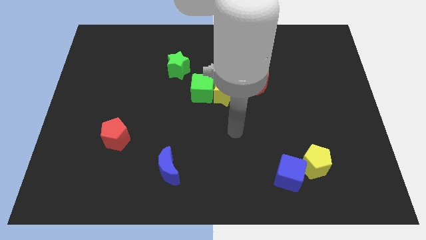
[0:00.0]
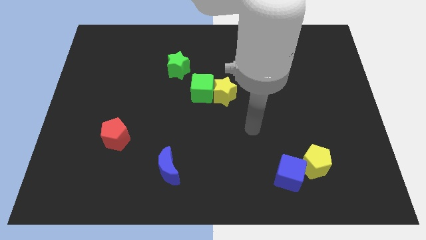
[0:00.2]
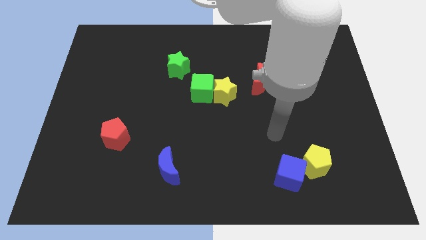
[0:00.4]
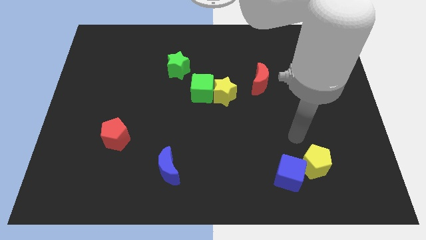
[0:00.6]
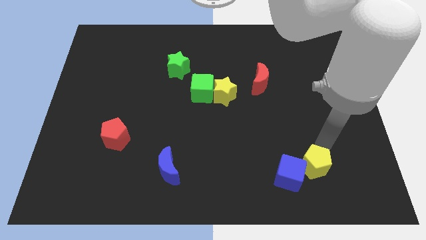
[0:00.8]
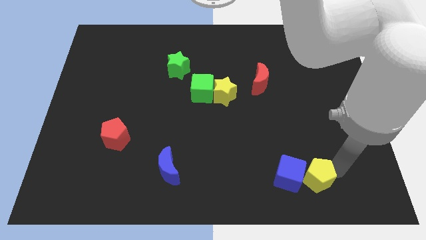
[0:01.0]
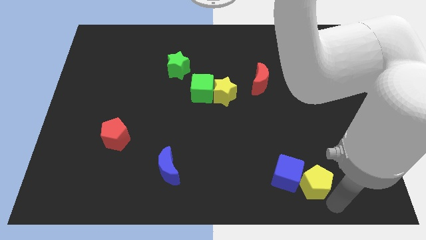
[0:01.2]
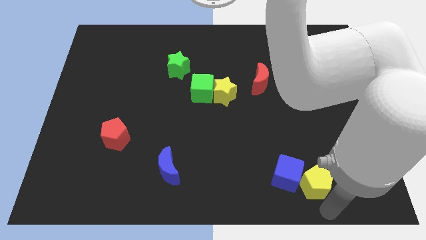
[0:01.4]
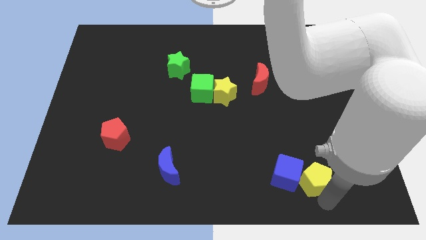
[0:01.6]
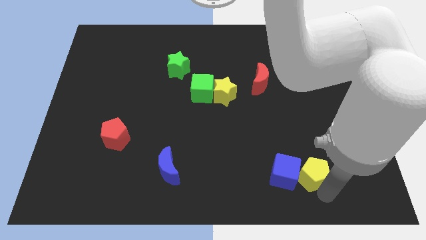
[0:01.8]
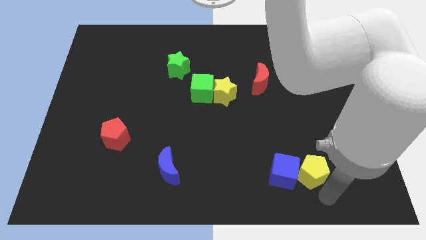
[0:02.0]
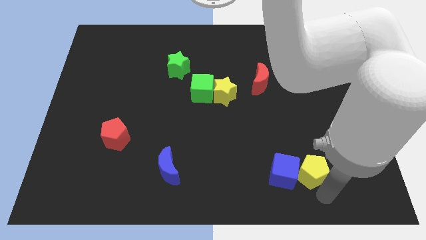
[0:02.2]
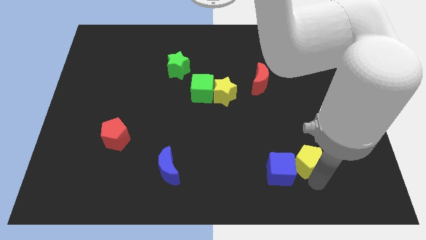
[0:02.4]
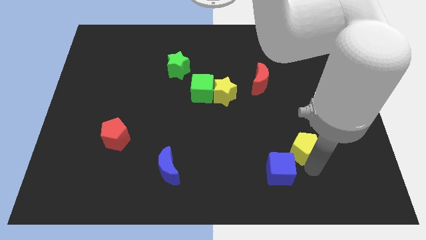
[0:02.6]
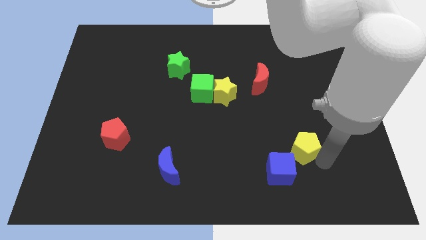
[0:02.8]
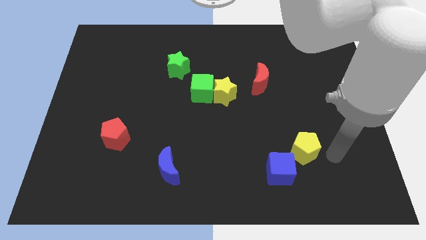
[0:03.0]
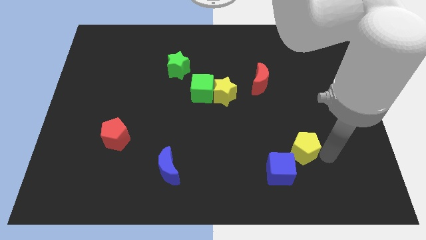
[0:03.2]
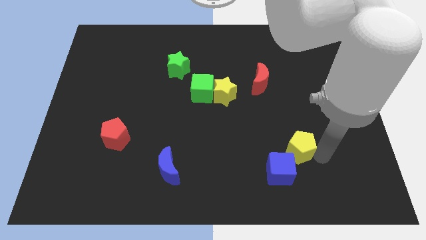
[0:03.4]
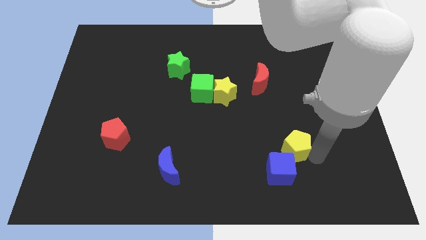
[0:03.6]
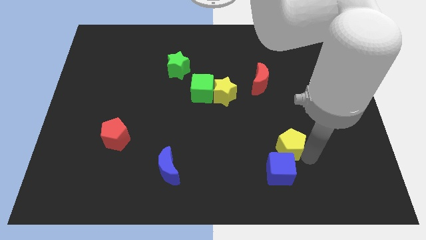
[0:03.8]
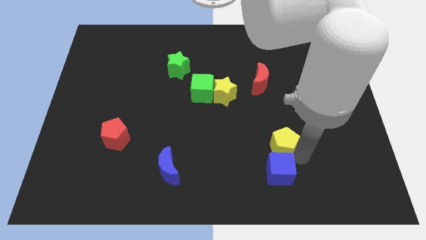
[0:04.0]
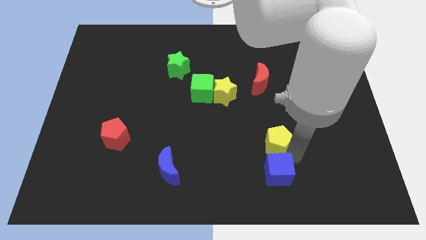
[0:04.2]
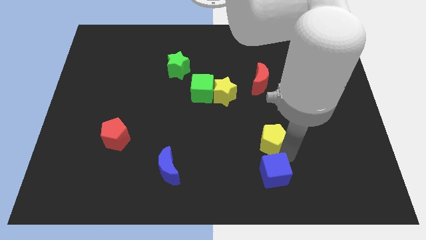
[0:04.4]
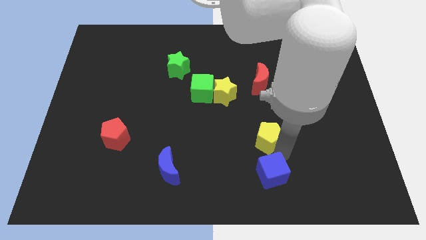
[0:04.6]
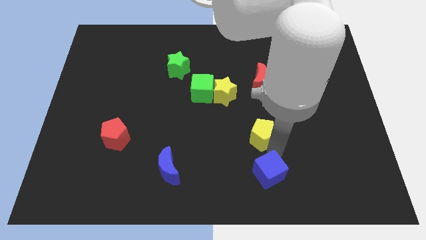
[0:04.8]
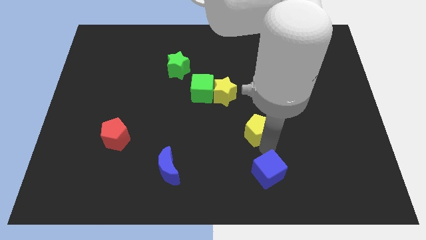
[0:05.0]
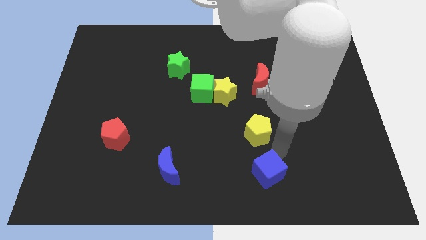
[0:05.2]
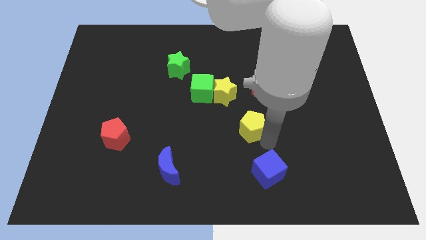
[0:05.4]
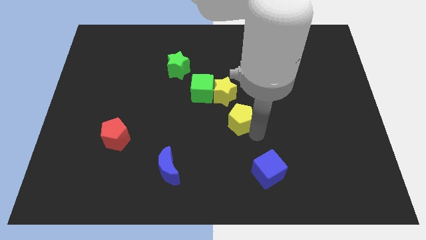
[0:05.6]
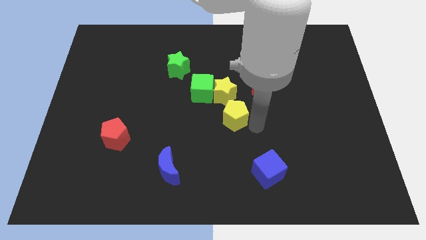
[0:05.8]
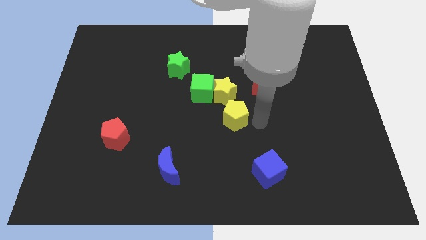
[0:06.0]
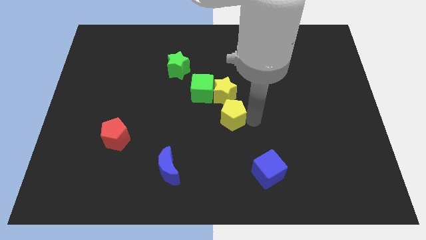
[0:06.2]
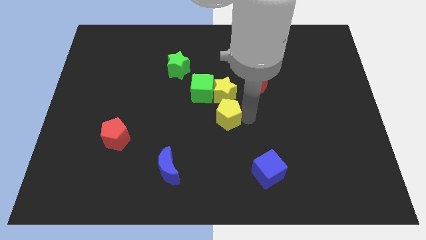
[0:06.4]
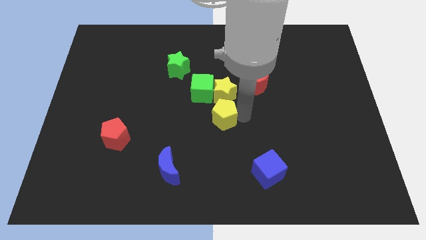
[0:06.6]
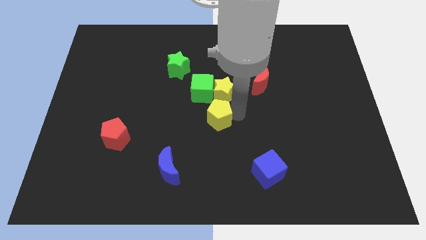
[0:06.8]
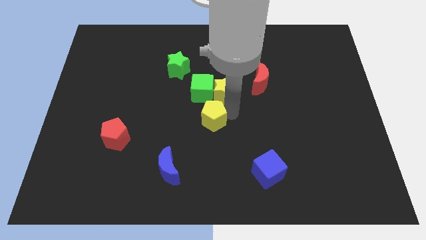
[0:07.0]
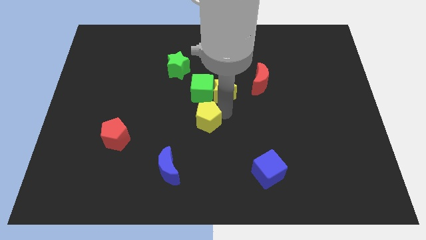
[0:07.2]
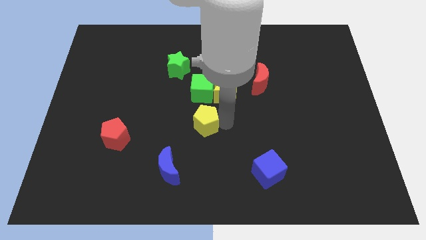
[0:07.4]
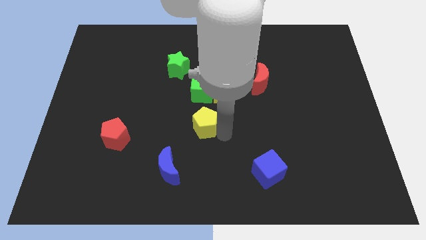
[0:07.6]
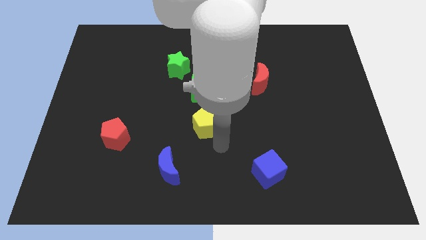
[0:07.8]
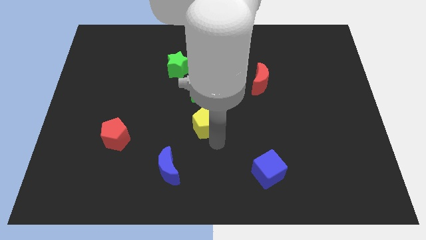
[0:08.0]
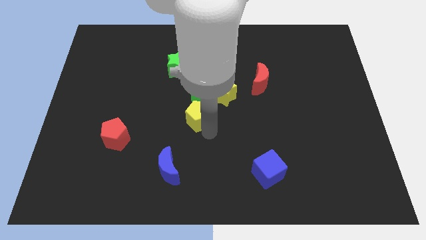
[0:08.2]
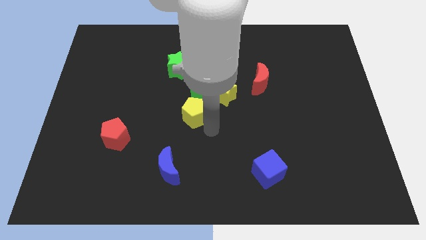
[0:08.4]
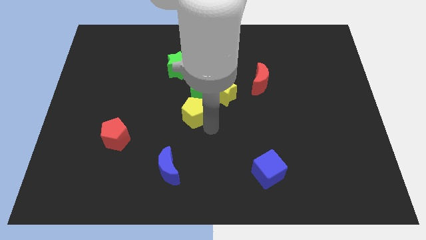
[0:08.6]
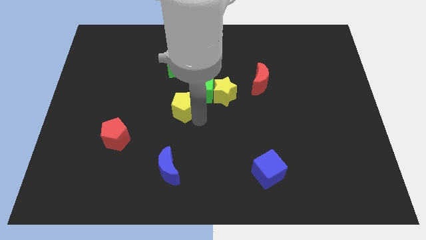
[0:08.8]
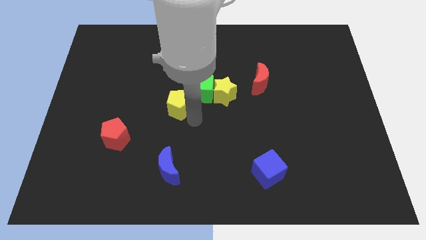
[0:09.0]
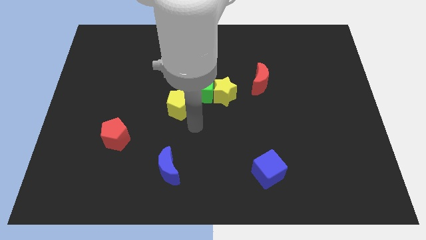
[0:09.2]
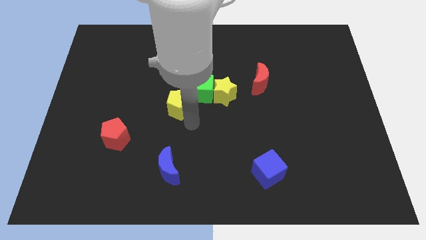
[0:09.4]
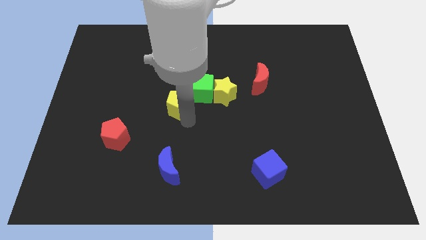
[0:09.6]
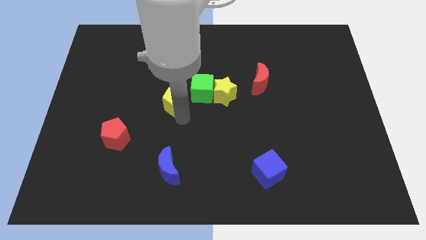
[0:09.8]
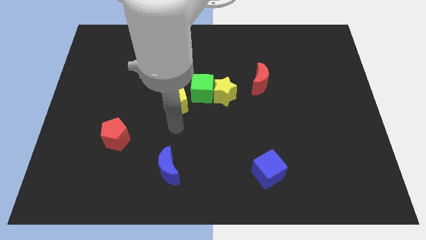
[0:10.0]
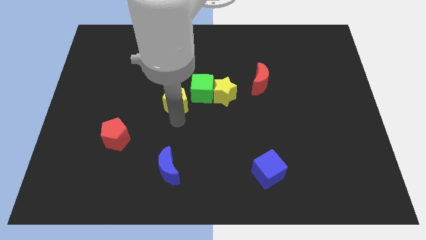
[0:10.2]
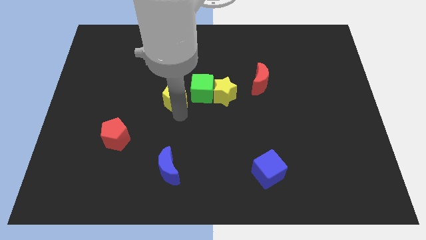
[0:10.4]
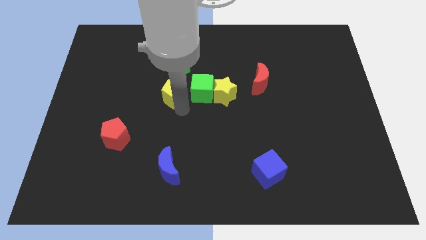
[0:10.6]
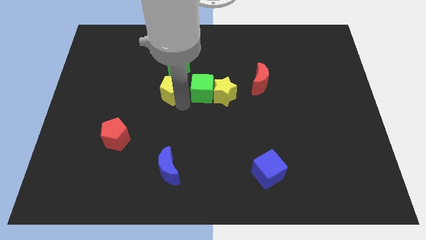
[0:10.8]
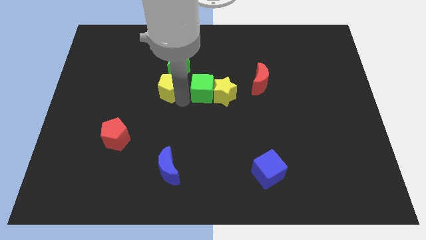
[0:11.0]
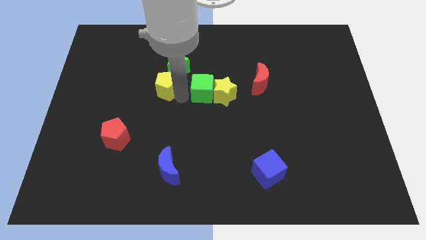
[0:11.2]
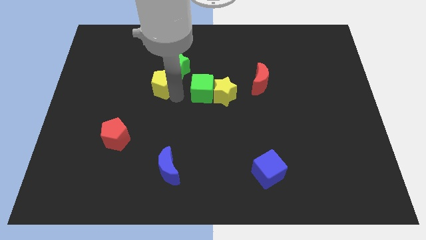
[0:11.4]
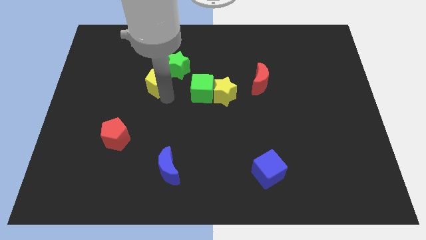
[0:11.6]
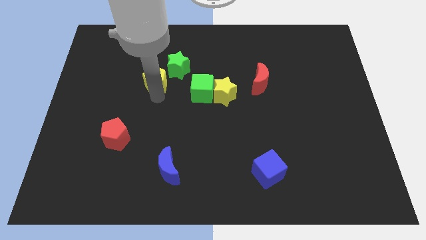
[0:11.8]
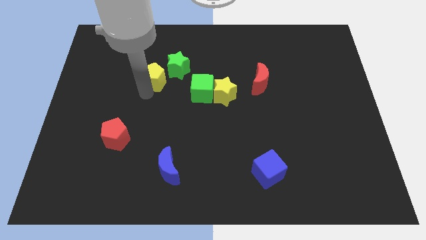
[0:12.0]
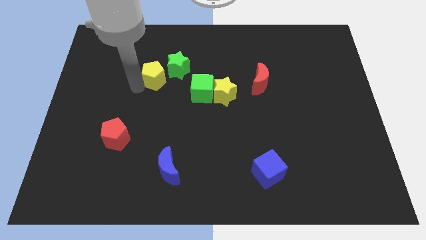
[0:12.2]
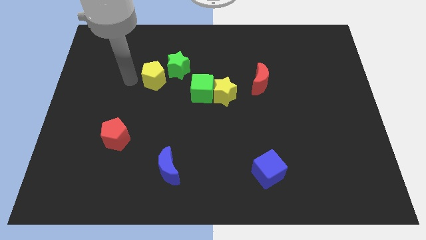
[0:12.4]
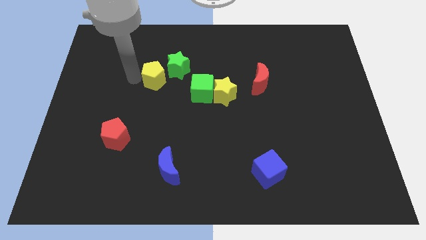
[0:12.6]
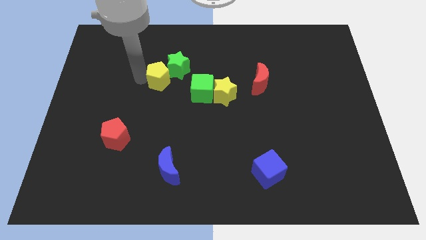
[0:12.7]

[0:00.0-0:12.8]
put the yellow pentagon towards the green star

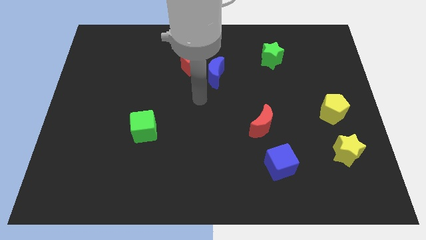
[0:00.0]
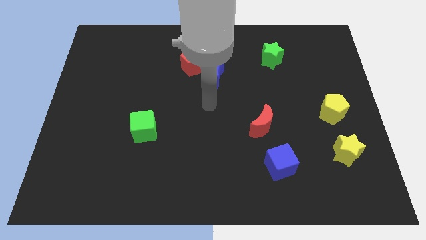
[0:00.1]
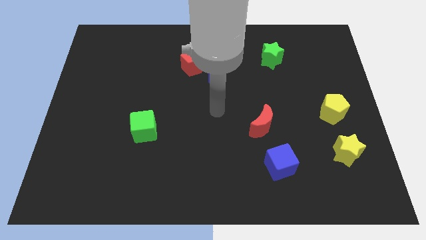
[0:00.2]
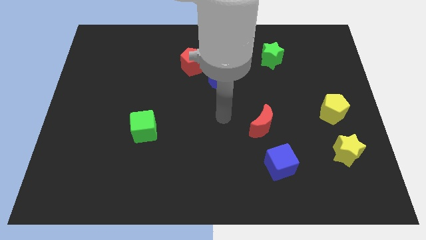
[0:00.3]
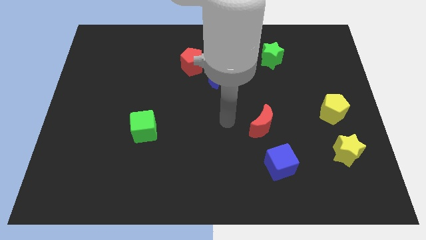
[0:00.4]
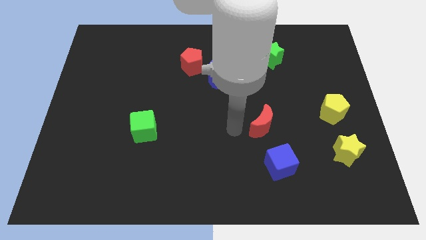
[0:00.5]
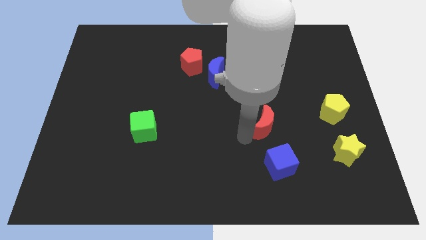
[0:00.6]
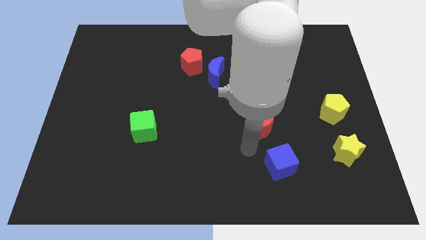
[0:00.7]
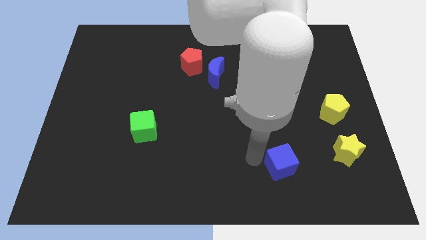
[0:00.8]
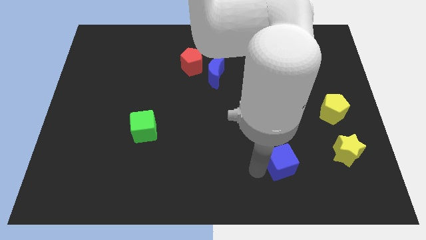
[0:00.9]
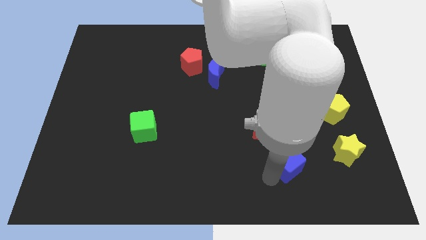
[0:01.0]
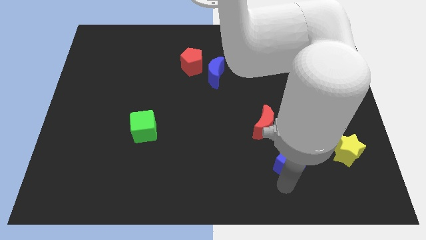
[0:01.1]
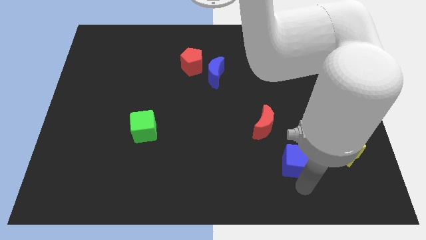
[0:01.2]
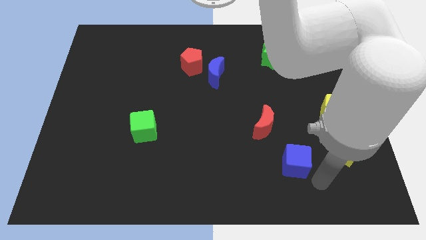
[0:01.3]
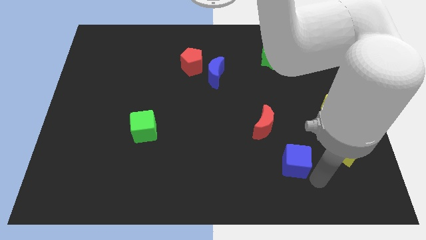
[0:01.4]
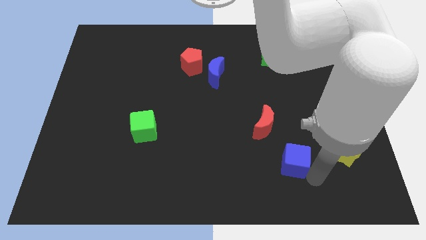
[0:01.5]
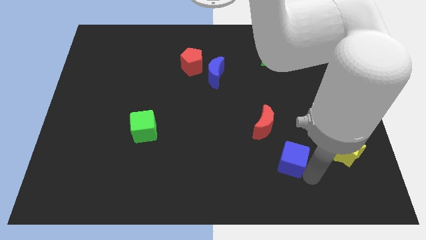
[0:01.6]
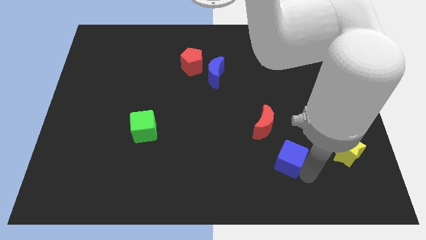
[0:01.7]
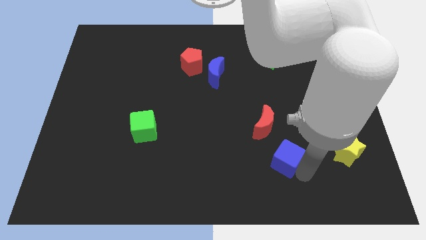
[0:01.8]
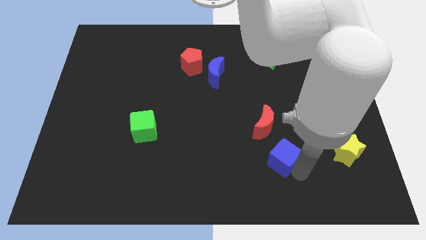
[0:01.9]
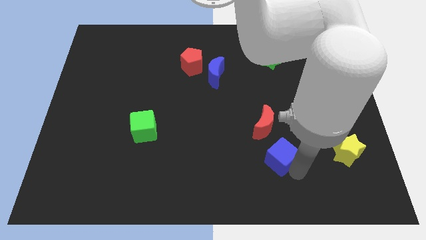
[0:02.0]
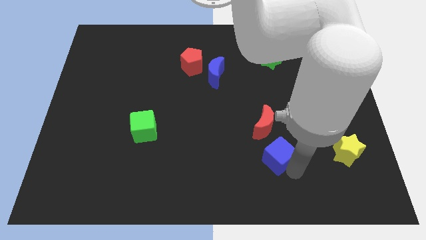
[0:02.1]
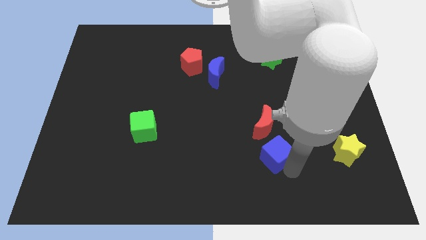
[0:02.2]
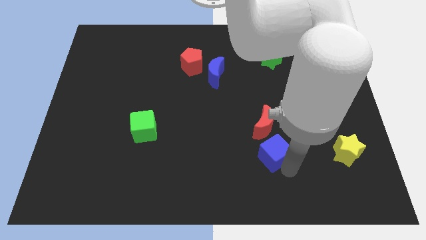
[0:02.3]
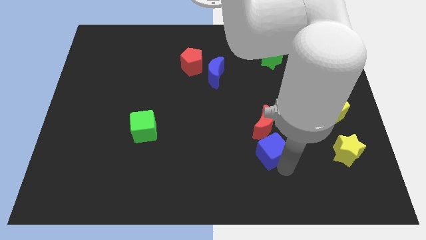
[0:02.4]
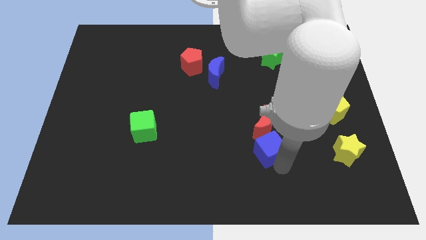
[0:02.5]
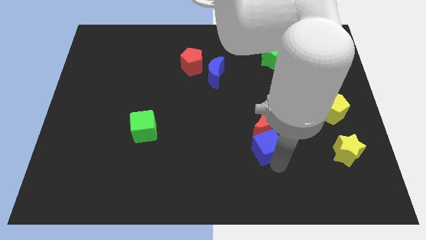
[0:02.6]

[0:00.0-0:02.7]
move the blue cube to the red moon
